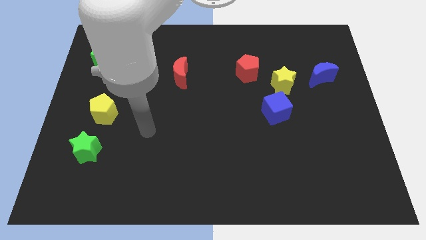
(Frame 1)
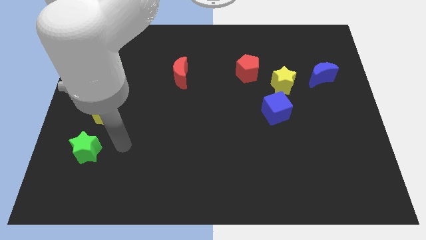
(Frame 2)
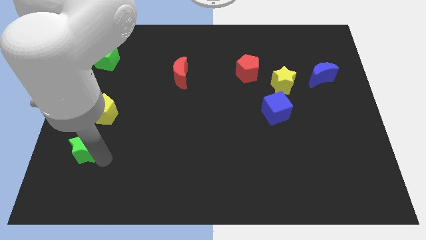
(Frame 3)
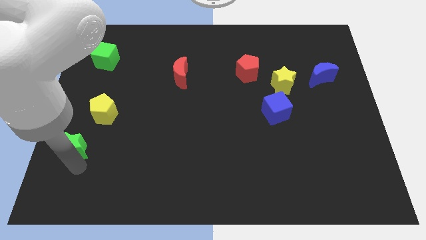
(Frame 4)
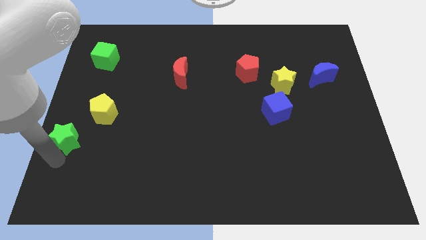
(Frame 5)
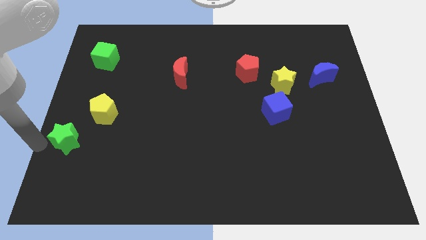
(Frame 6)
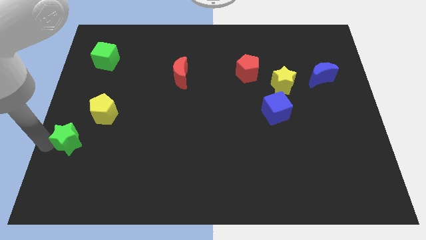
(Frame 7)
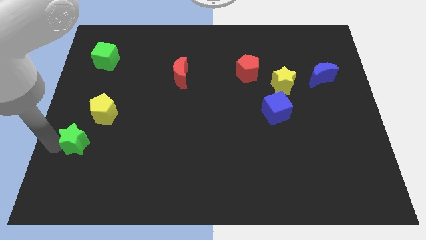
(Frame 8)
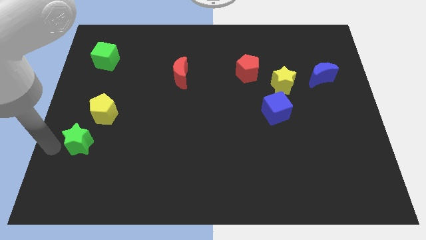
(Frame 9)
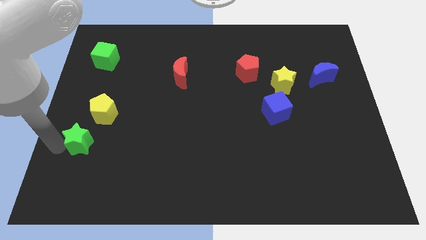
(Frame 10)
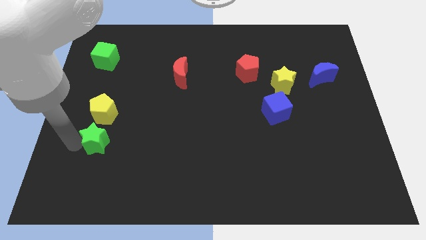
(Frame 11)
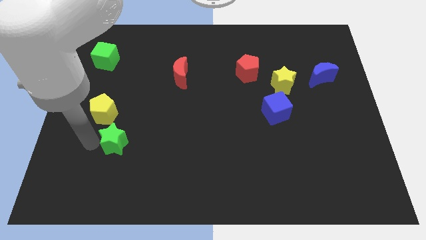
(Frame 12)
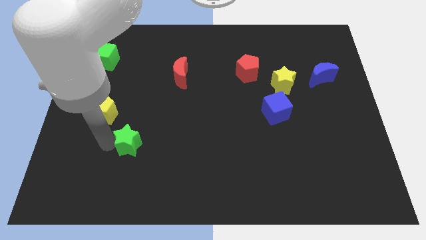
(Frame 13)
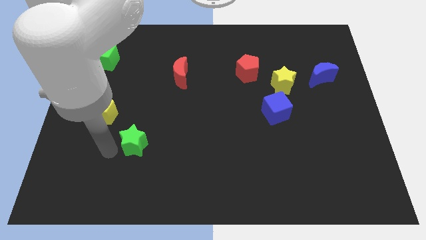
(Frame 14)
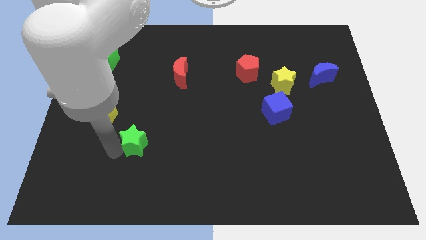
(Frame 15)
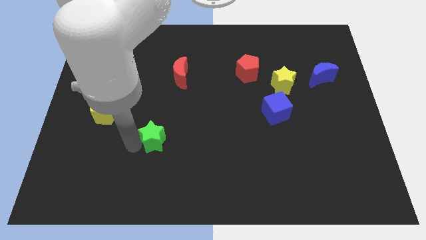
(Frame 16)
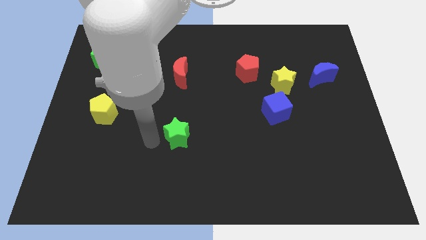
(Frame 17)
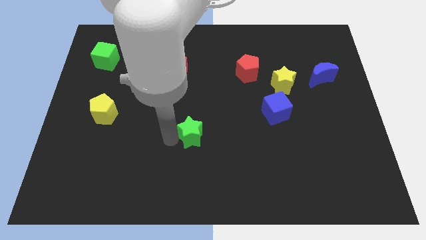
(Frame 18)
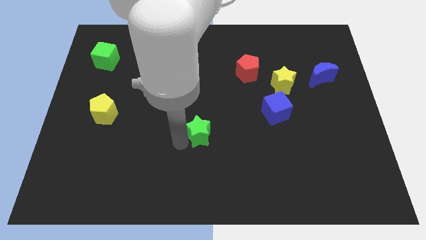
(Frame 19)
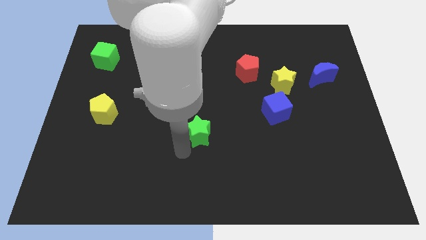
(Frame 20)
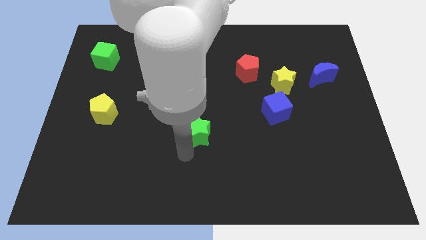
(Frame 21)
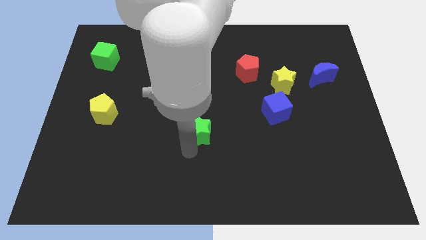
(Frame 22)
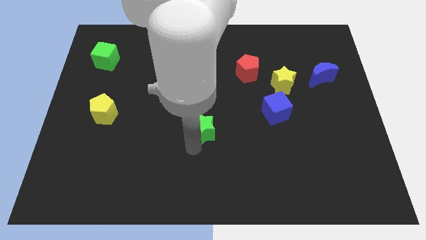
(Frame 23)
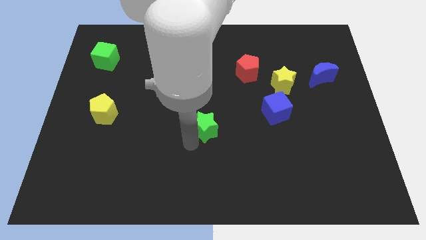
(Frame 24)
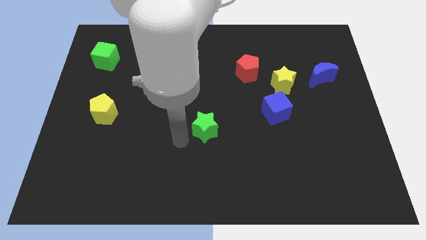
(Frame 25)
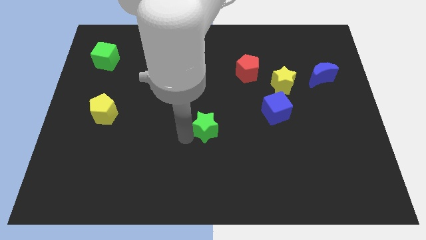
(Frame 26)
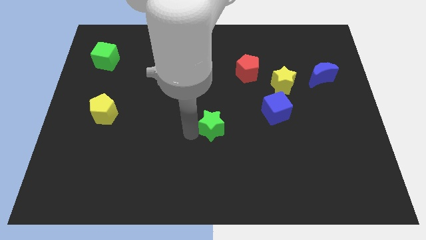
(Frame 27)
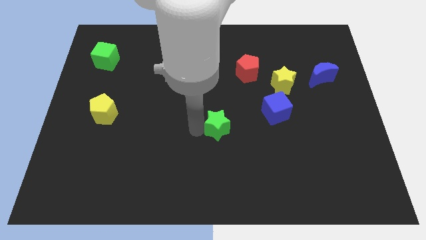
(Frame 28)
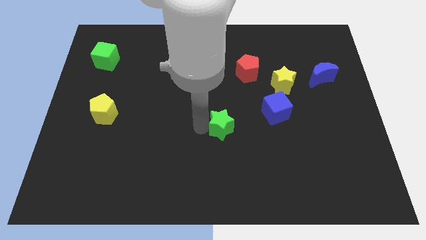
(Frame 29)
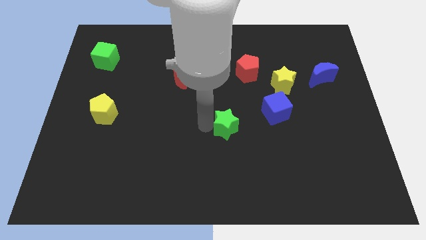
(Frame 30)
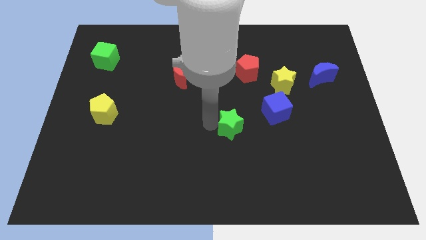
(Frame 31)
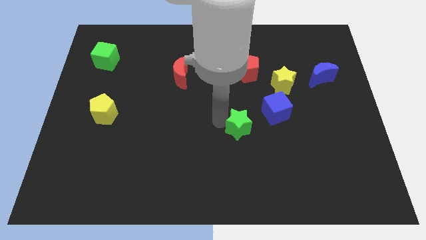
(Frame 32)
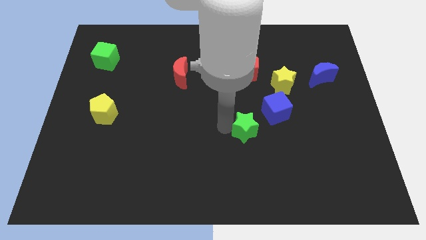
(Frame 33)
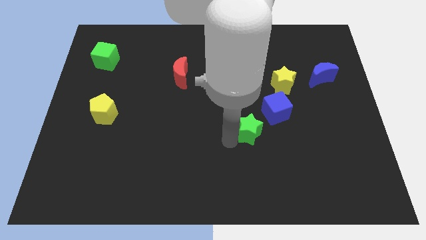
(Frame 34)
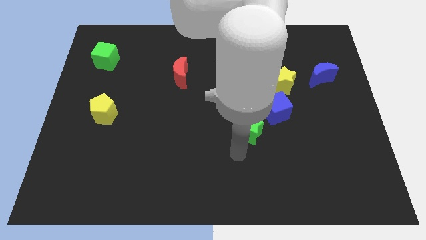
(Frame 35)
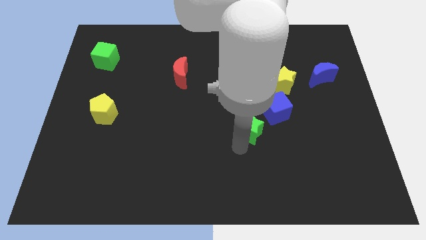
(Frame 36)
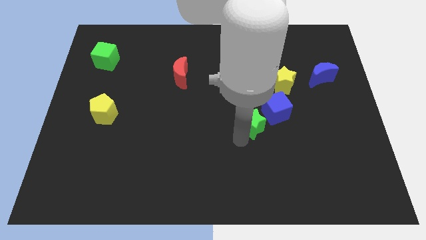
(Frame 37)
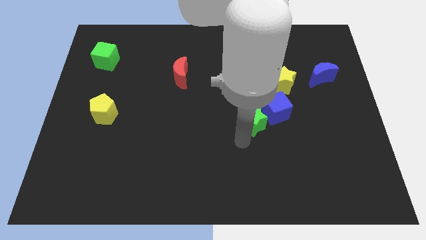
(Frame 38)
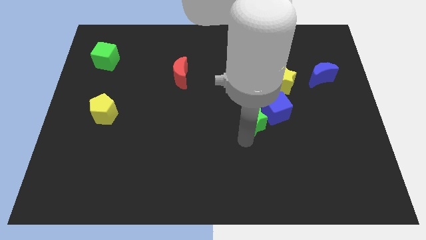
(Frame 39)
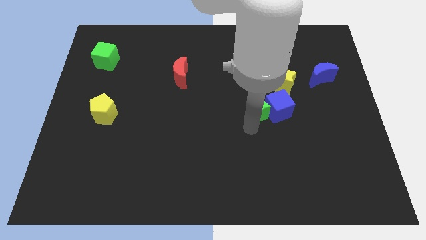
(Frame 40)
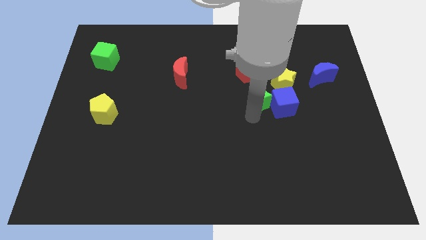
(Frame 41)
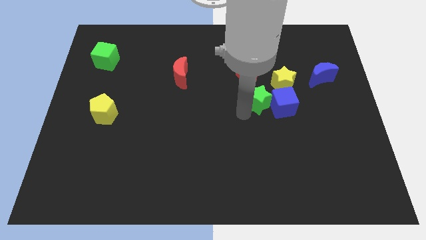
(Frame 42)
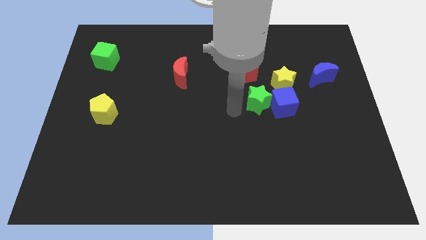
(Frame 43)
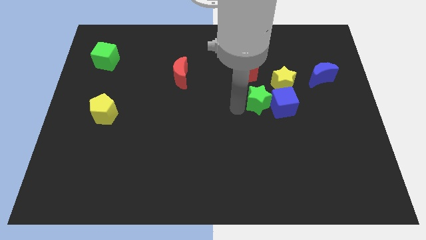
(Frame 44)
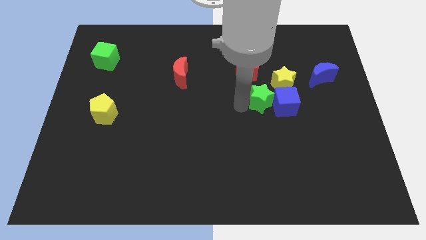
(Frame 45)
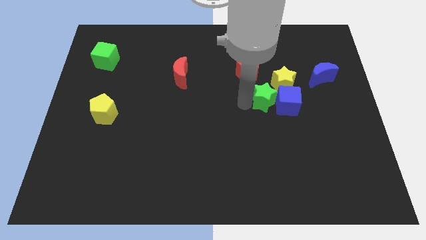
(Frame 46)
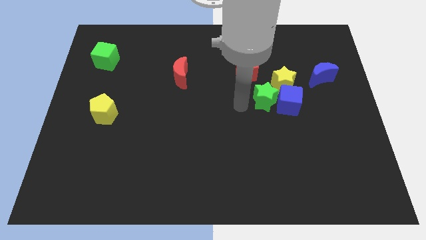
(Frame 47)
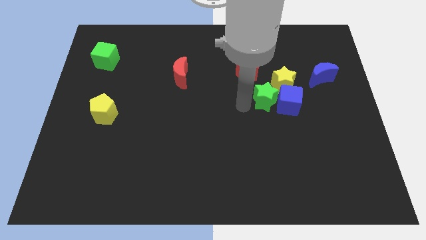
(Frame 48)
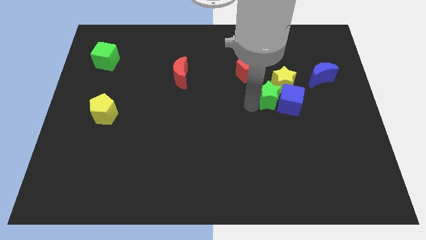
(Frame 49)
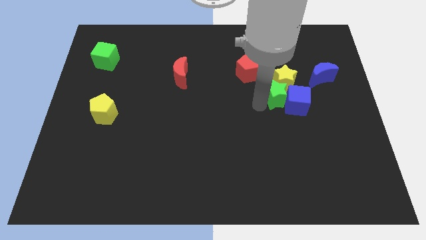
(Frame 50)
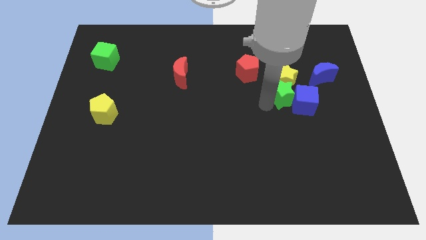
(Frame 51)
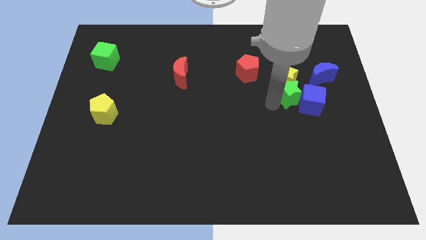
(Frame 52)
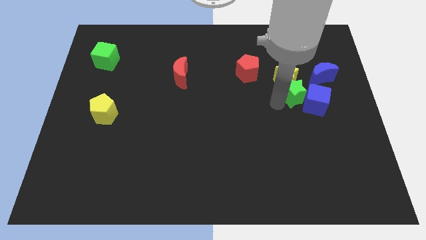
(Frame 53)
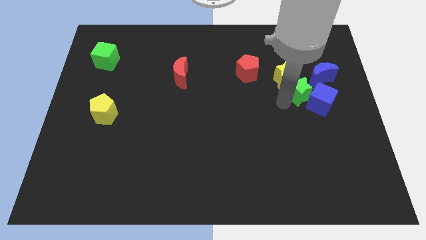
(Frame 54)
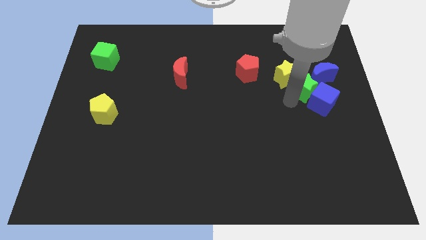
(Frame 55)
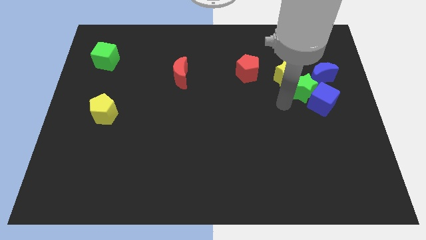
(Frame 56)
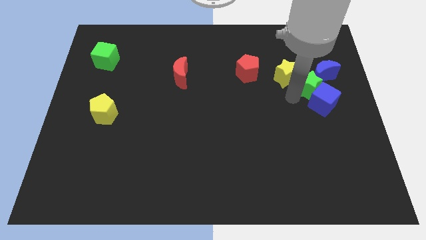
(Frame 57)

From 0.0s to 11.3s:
slide the green star to the blue moon
